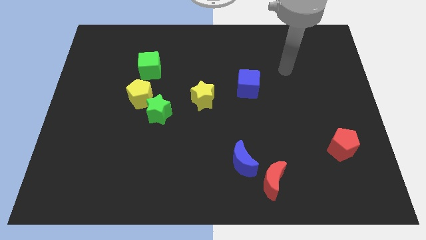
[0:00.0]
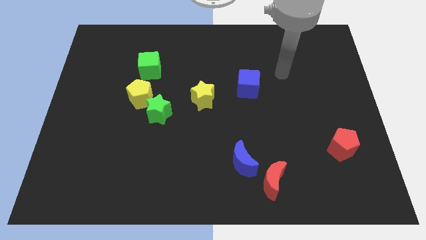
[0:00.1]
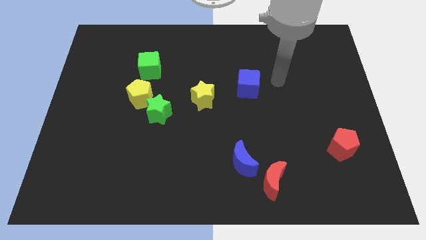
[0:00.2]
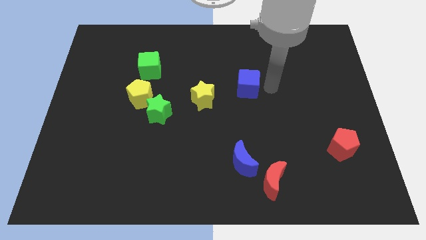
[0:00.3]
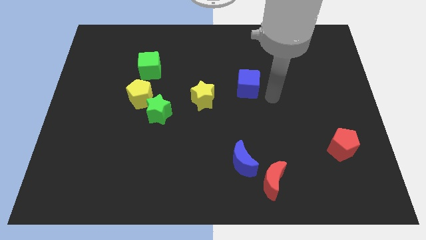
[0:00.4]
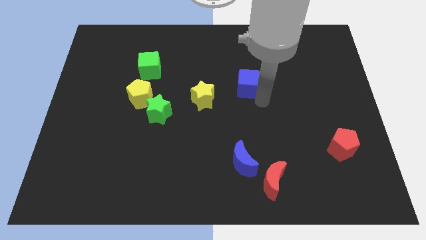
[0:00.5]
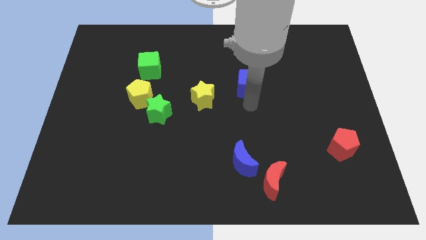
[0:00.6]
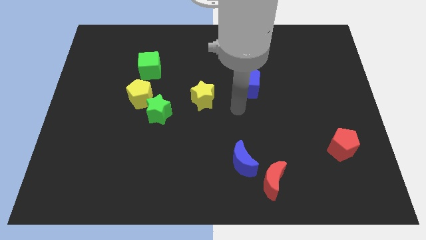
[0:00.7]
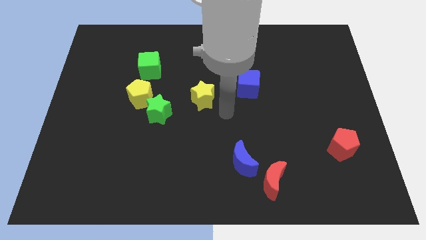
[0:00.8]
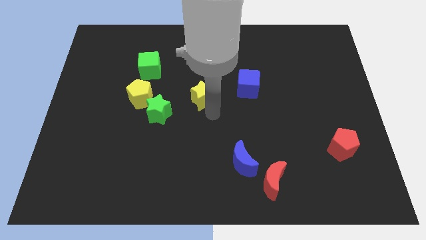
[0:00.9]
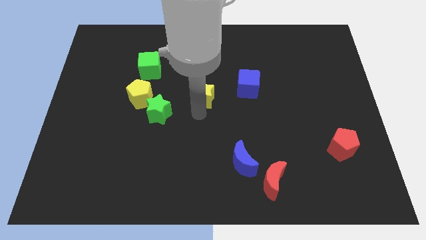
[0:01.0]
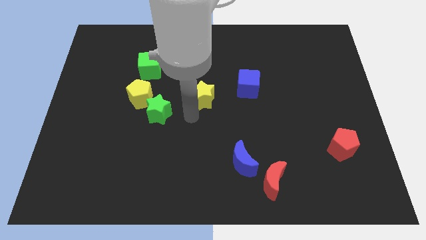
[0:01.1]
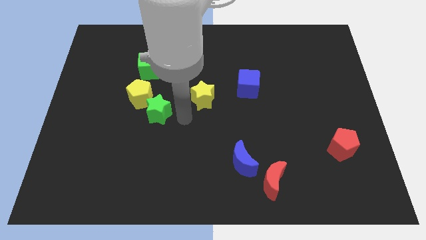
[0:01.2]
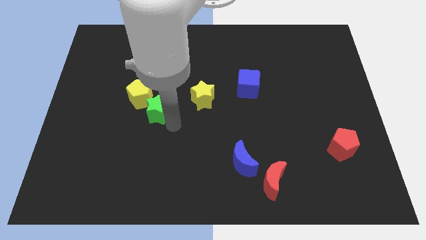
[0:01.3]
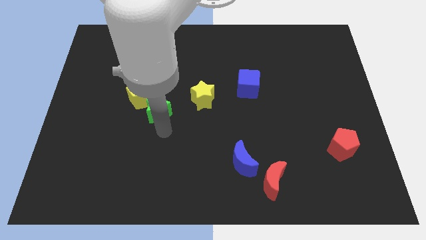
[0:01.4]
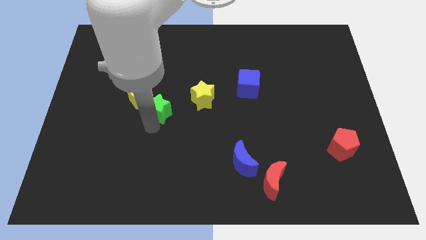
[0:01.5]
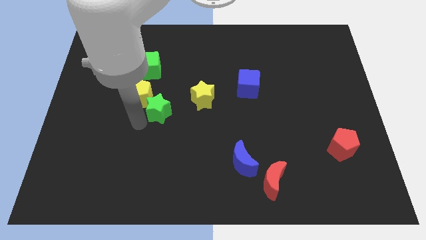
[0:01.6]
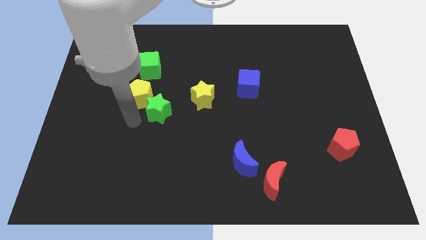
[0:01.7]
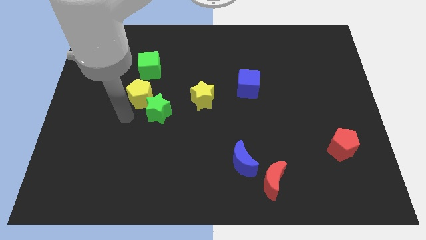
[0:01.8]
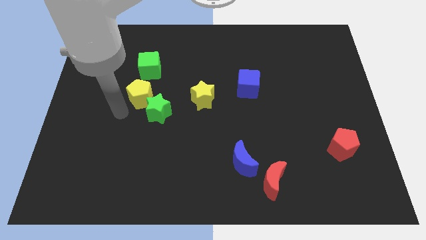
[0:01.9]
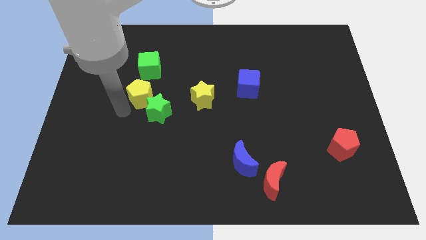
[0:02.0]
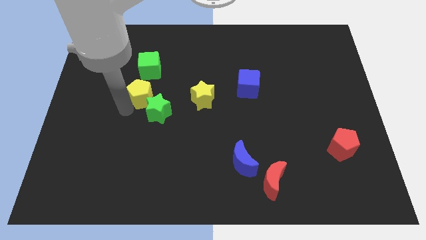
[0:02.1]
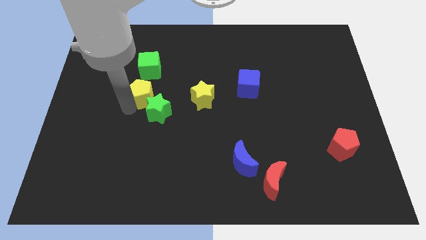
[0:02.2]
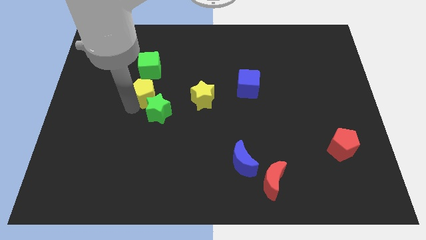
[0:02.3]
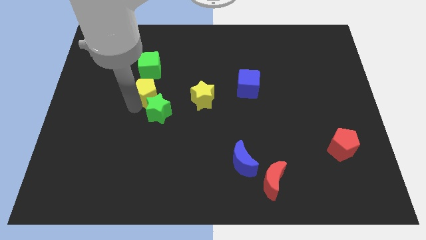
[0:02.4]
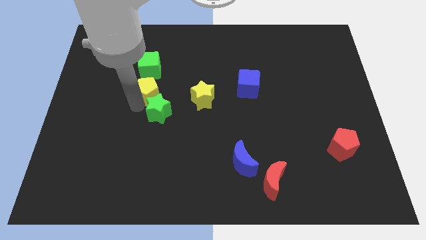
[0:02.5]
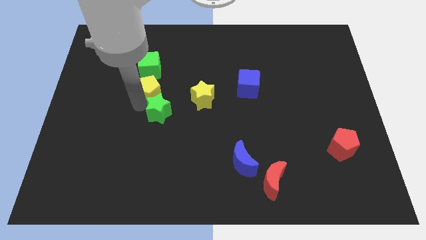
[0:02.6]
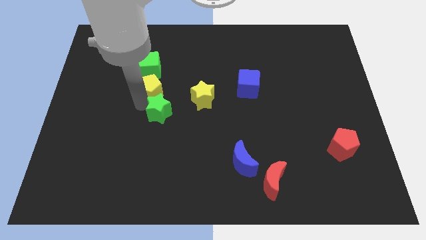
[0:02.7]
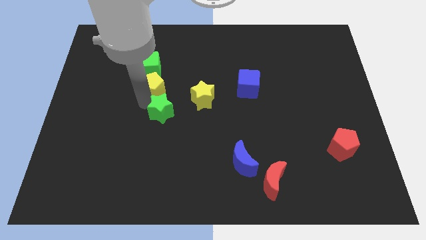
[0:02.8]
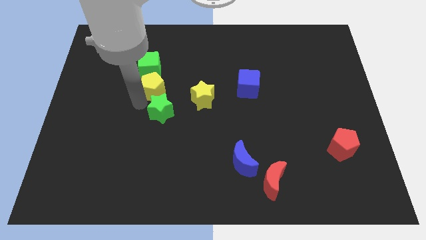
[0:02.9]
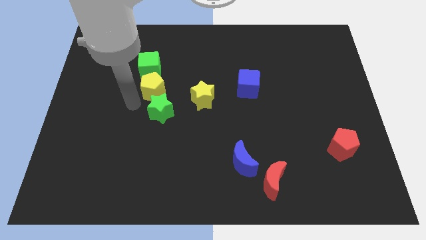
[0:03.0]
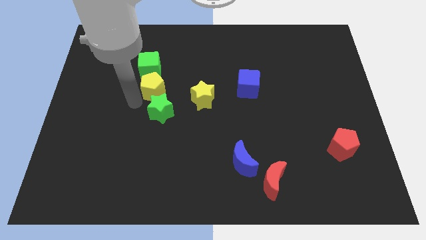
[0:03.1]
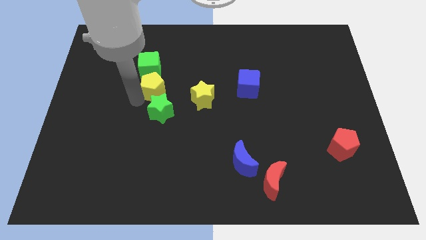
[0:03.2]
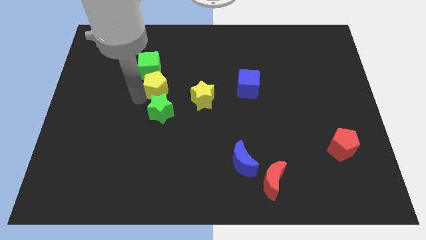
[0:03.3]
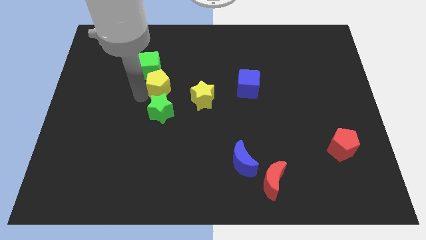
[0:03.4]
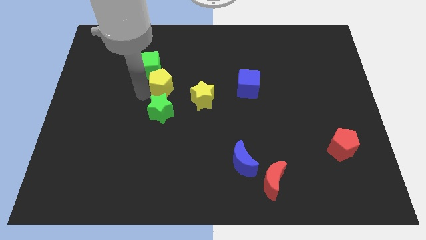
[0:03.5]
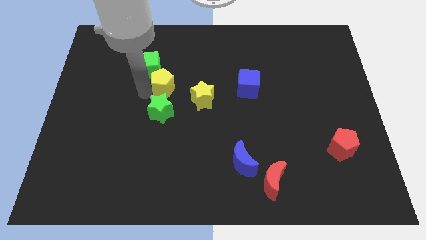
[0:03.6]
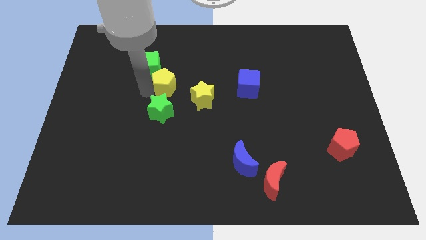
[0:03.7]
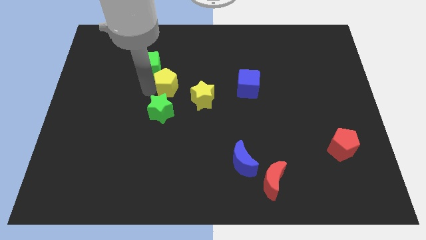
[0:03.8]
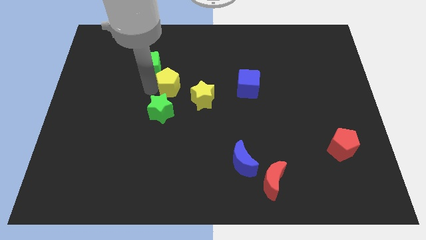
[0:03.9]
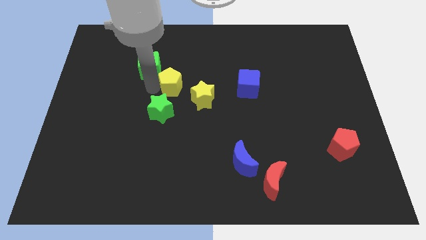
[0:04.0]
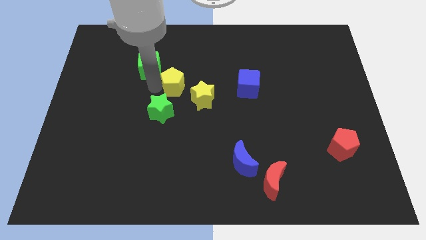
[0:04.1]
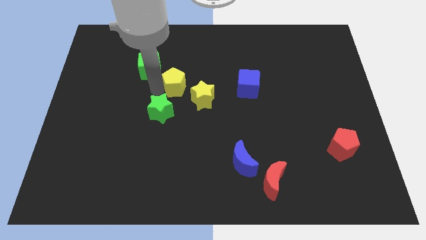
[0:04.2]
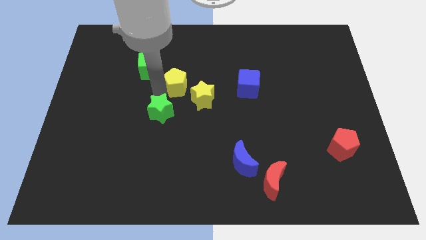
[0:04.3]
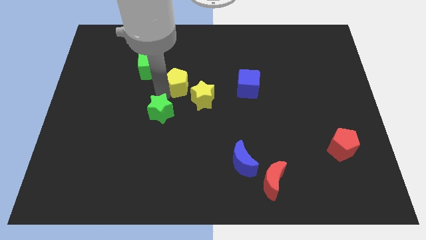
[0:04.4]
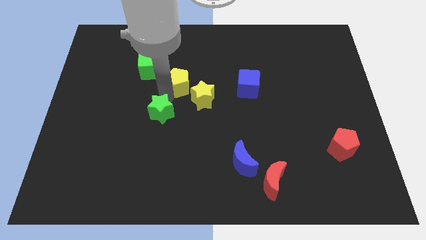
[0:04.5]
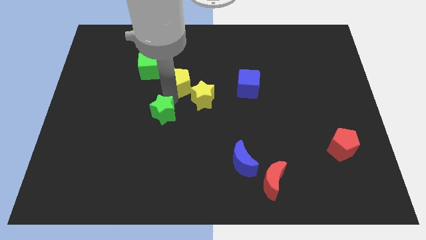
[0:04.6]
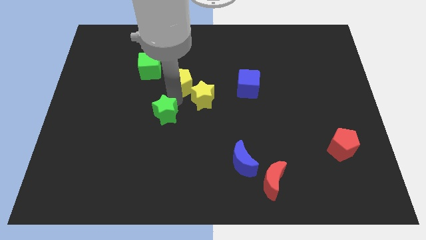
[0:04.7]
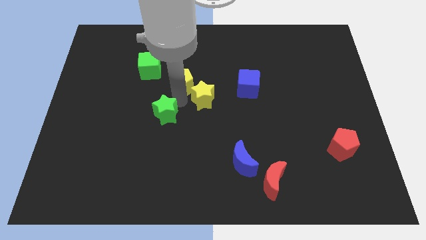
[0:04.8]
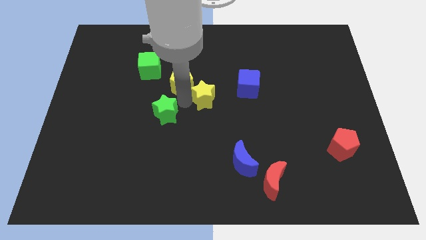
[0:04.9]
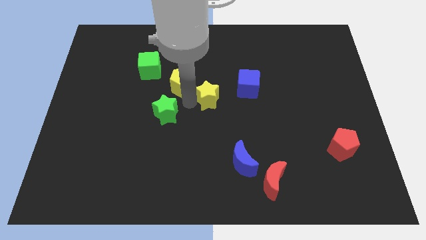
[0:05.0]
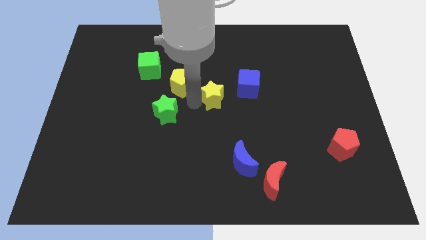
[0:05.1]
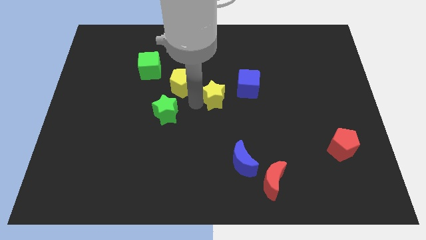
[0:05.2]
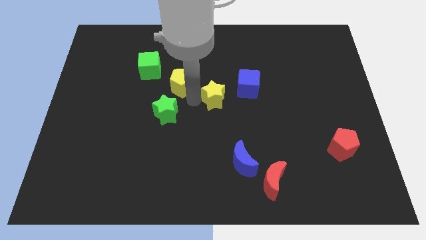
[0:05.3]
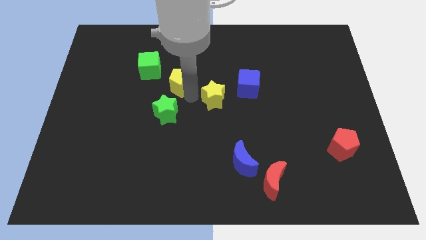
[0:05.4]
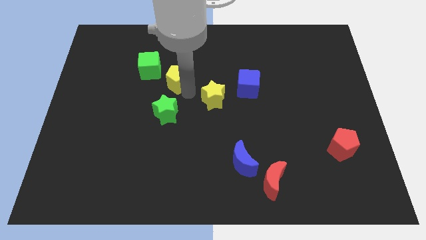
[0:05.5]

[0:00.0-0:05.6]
move the yellow pentagon to the right side of the green cube

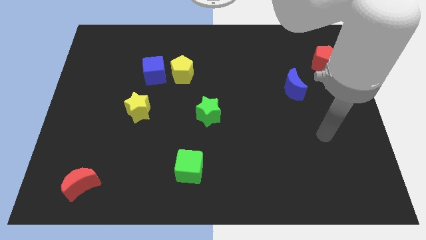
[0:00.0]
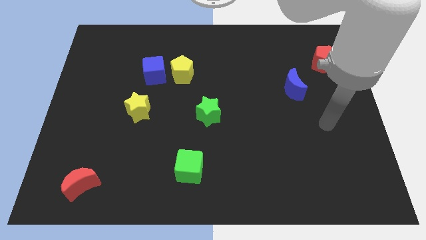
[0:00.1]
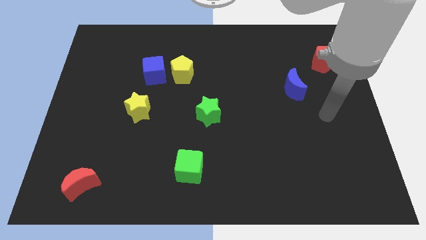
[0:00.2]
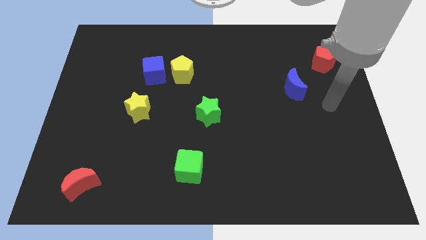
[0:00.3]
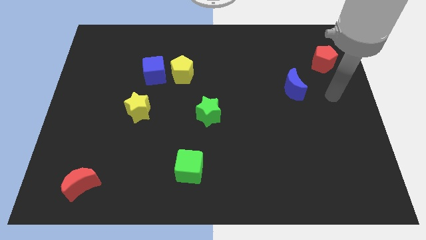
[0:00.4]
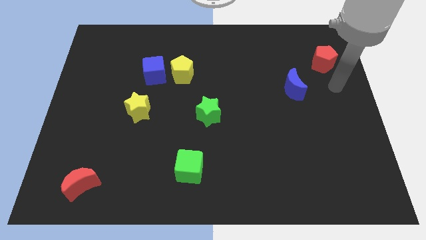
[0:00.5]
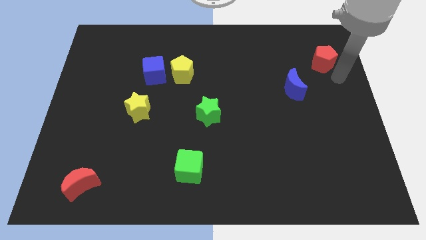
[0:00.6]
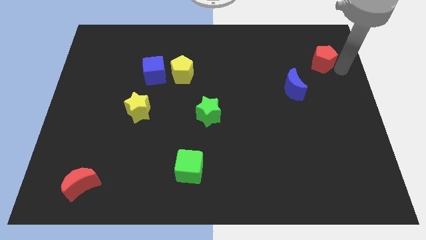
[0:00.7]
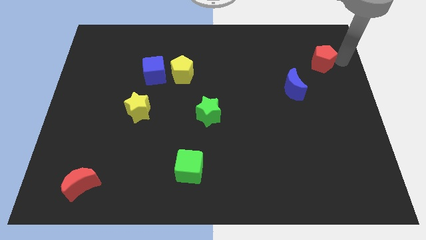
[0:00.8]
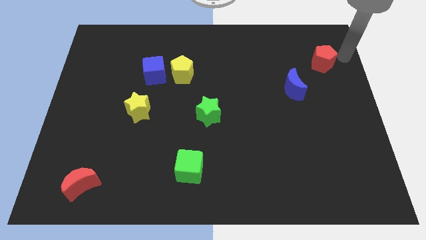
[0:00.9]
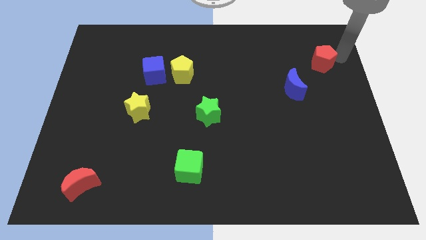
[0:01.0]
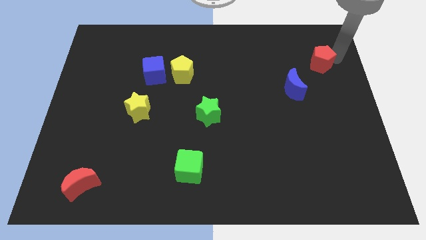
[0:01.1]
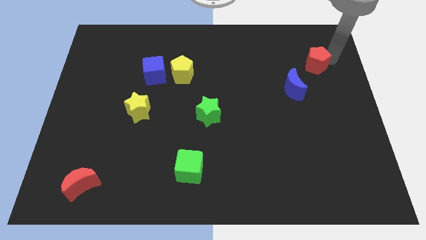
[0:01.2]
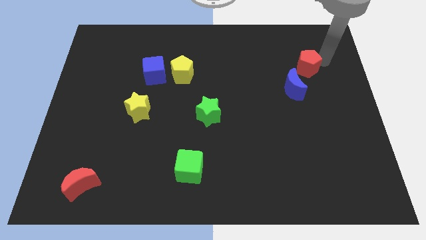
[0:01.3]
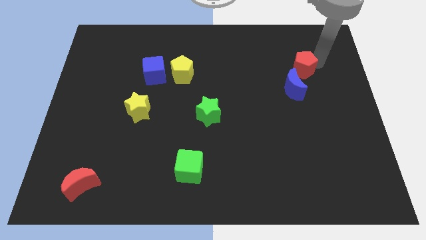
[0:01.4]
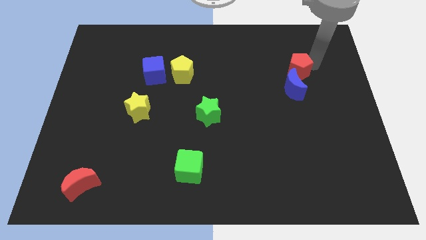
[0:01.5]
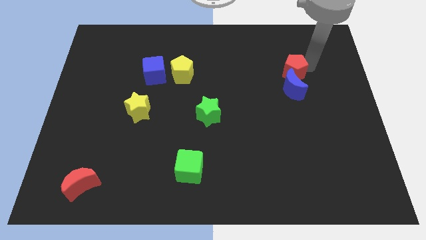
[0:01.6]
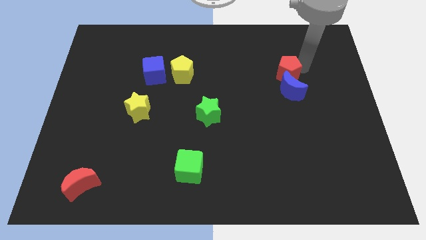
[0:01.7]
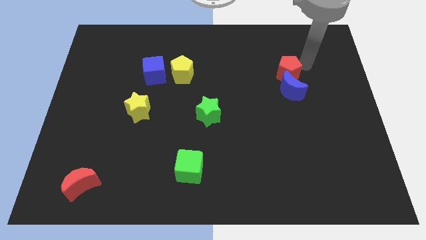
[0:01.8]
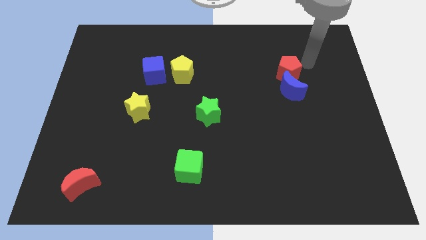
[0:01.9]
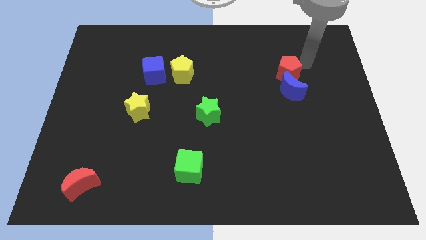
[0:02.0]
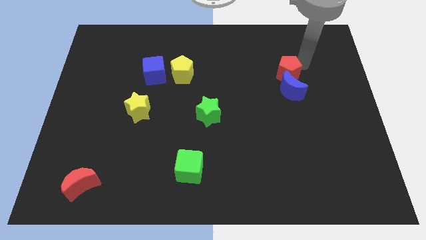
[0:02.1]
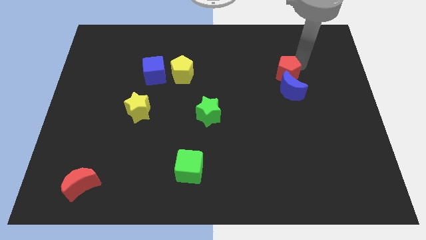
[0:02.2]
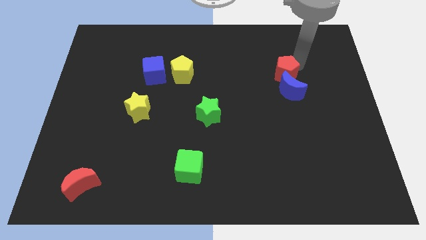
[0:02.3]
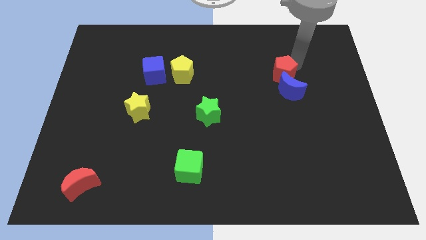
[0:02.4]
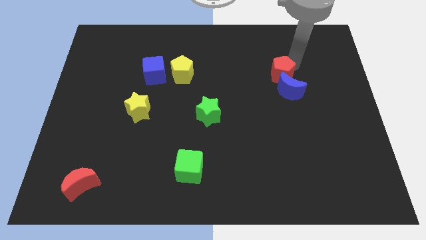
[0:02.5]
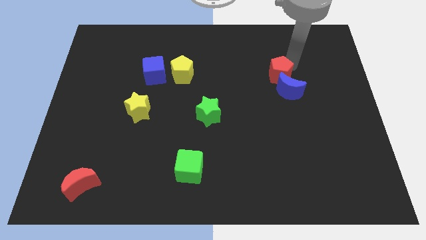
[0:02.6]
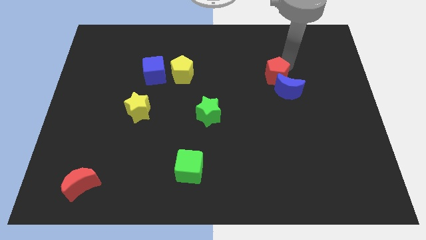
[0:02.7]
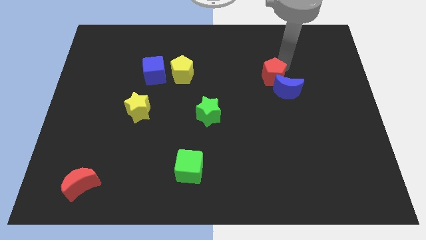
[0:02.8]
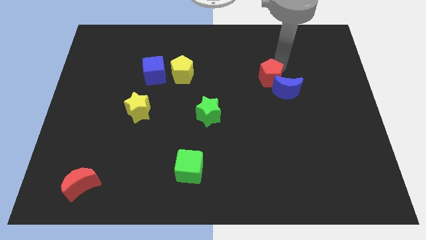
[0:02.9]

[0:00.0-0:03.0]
put the red pentagon just left of the blue moon
